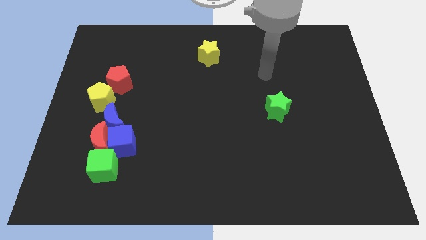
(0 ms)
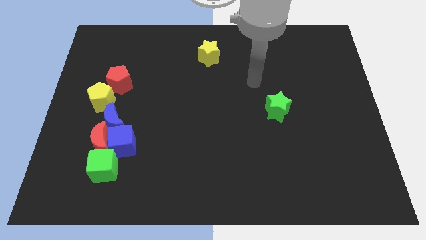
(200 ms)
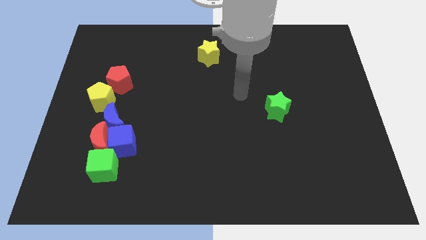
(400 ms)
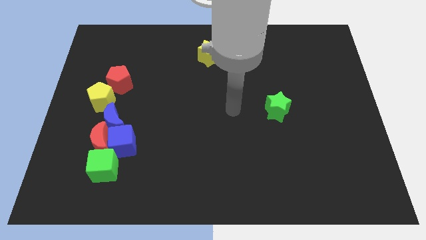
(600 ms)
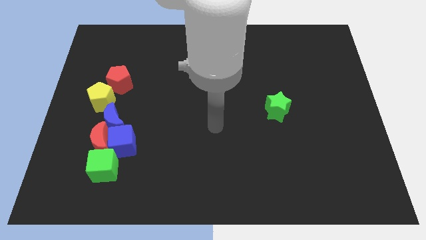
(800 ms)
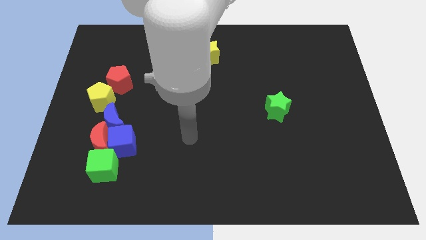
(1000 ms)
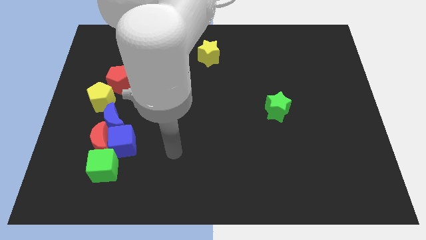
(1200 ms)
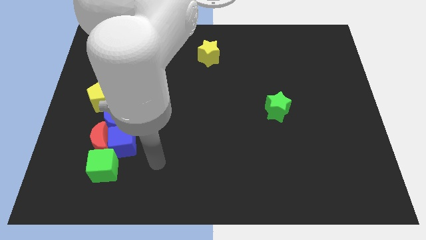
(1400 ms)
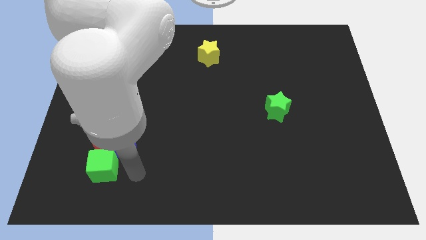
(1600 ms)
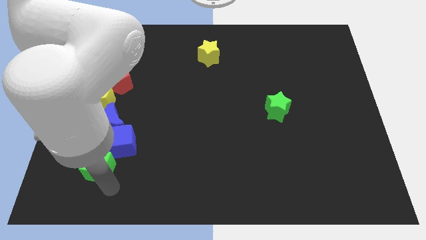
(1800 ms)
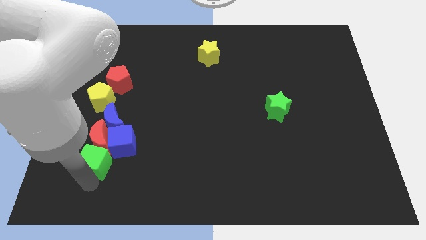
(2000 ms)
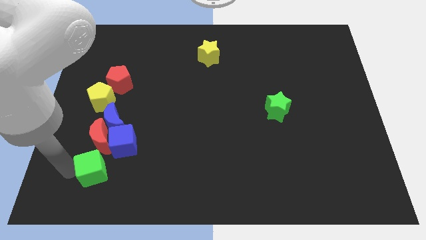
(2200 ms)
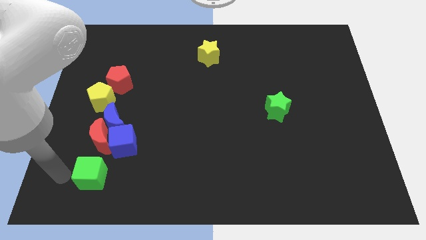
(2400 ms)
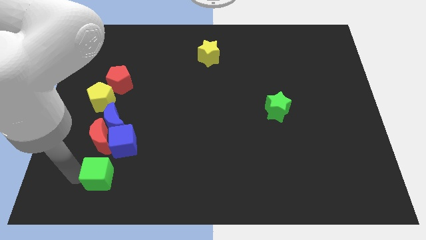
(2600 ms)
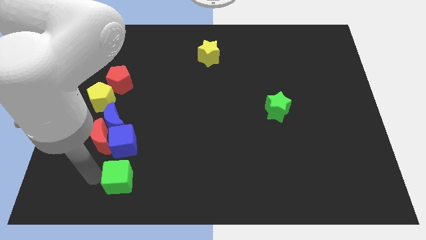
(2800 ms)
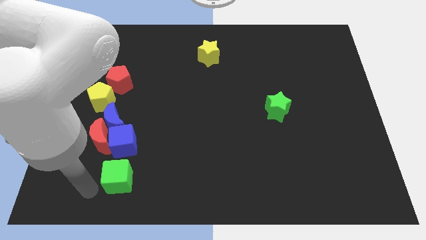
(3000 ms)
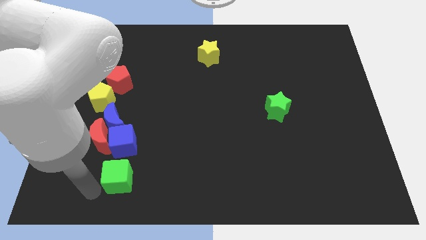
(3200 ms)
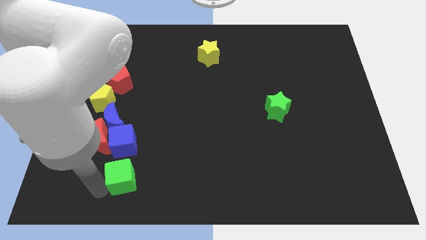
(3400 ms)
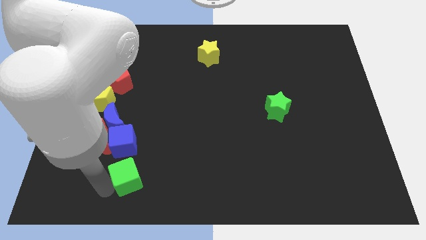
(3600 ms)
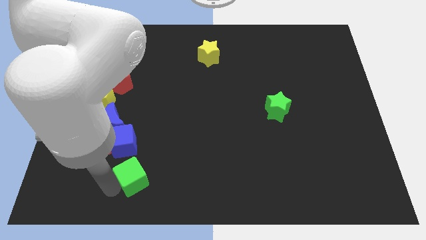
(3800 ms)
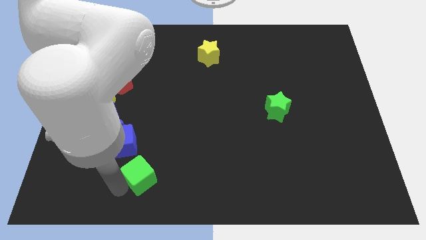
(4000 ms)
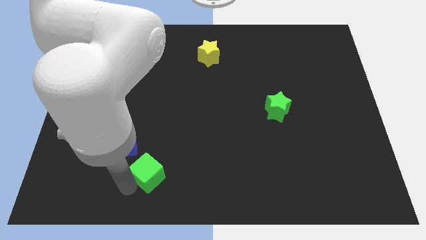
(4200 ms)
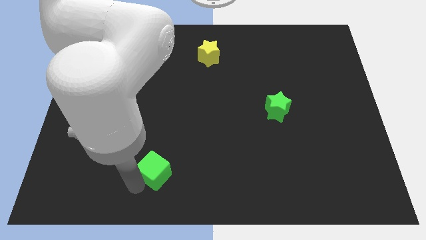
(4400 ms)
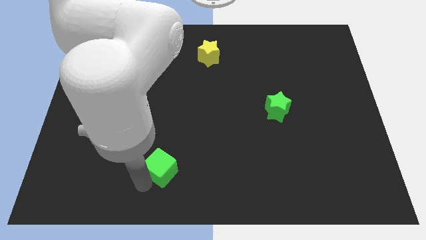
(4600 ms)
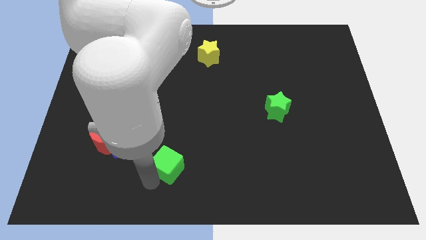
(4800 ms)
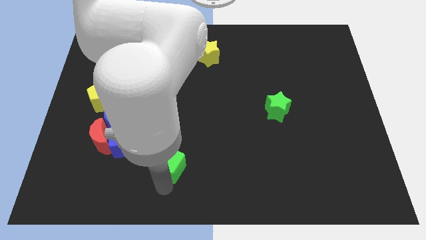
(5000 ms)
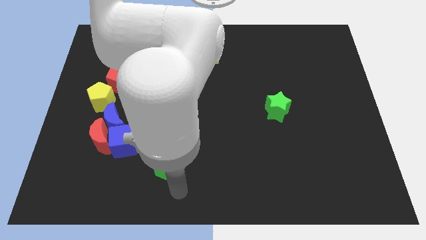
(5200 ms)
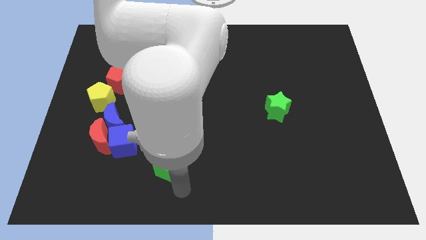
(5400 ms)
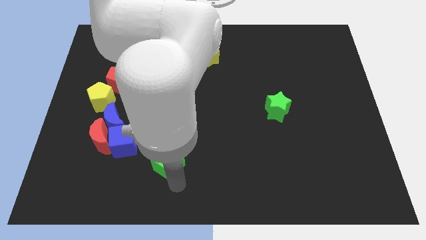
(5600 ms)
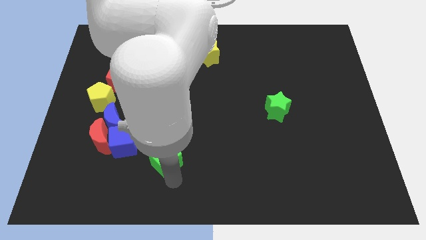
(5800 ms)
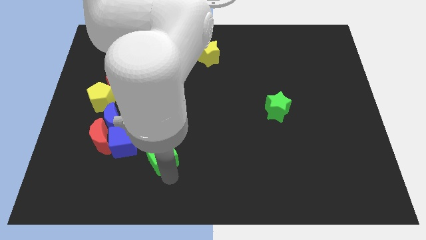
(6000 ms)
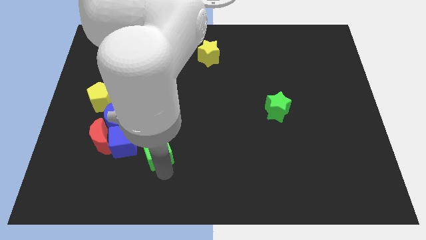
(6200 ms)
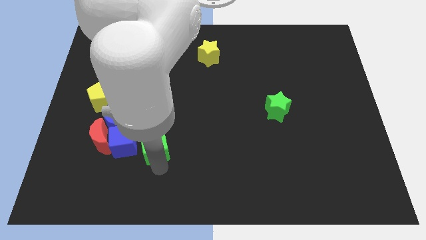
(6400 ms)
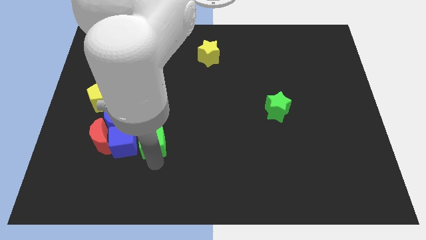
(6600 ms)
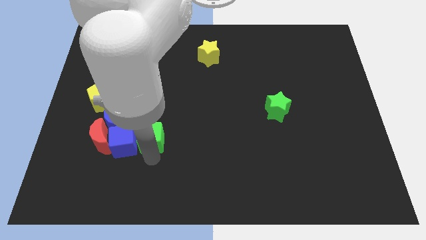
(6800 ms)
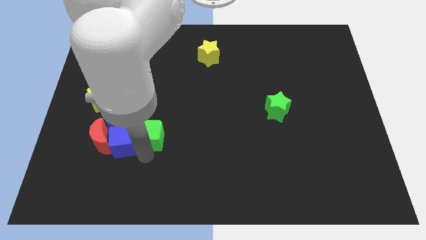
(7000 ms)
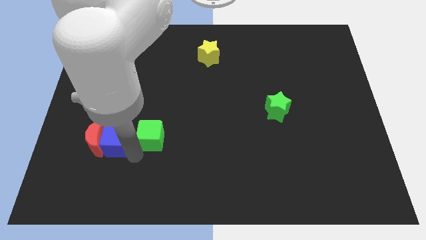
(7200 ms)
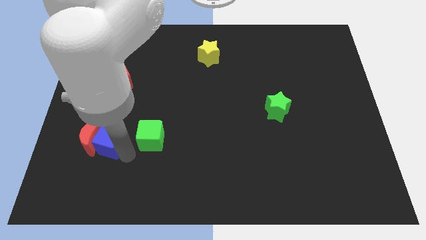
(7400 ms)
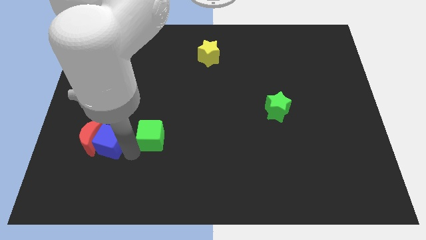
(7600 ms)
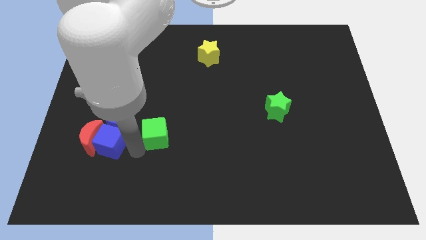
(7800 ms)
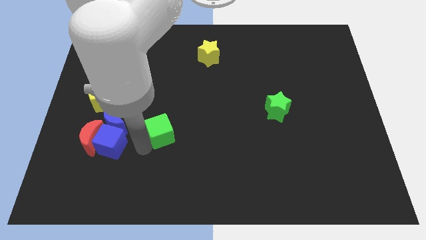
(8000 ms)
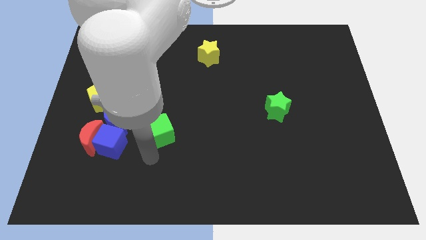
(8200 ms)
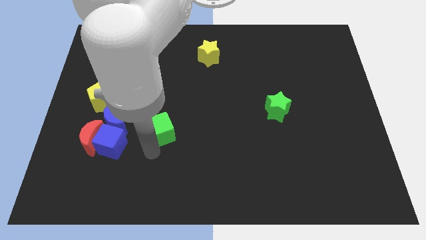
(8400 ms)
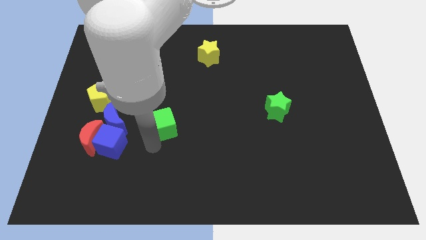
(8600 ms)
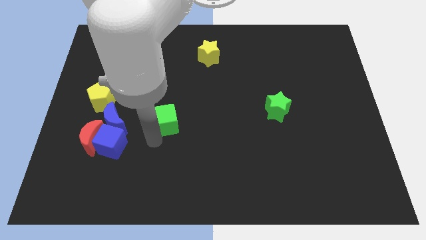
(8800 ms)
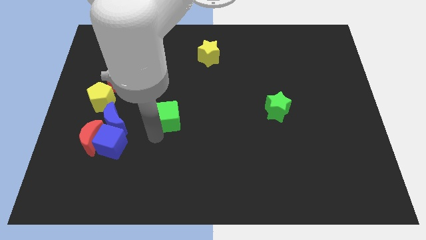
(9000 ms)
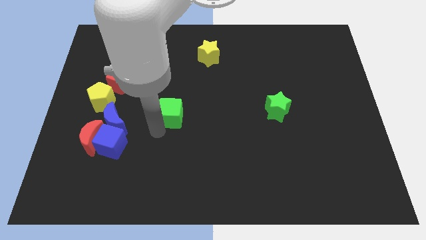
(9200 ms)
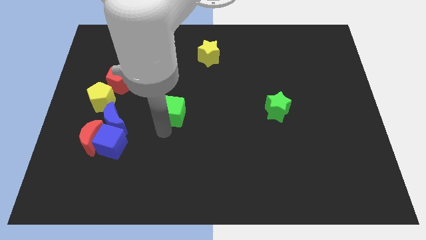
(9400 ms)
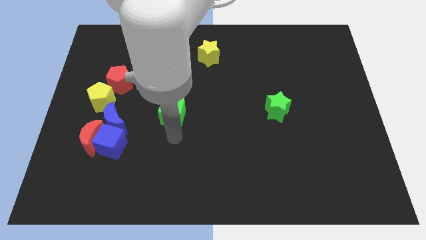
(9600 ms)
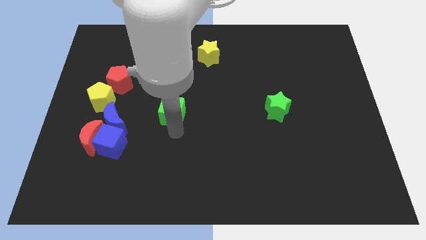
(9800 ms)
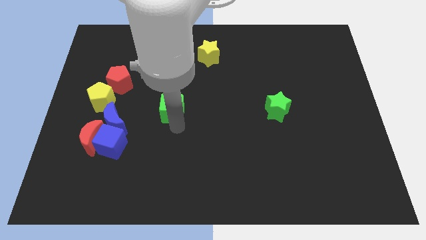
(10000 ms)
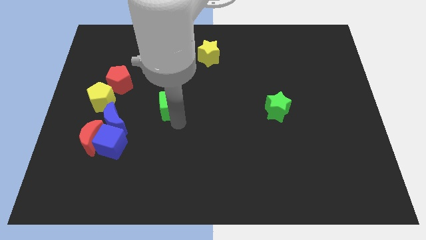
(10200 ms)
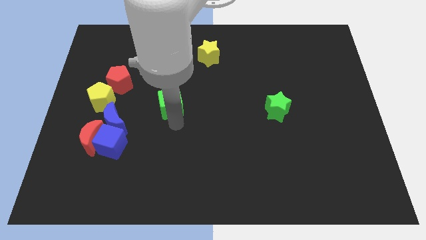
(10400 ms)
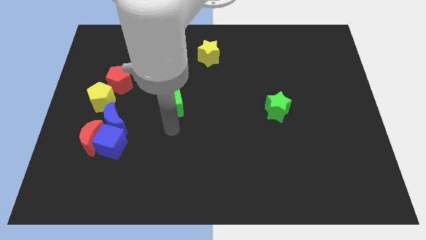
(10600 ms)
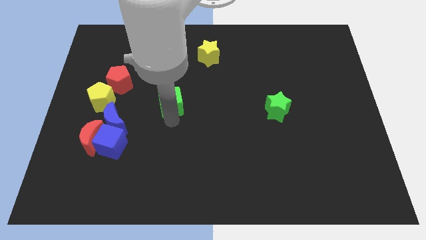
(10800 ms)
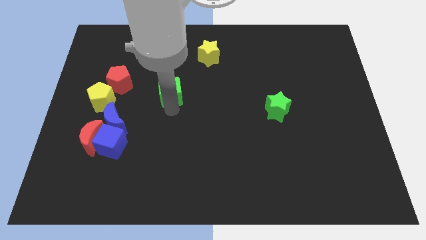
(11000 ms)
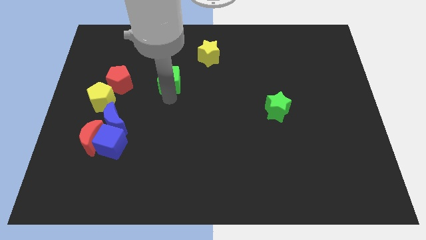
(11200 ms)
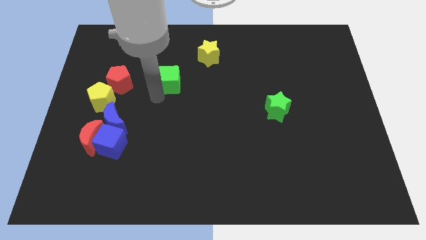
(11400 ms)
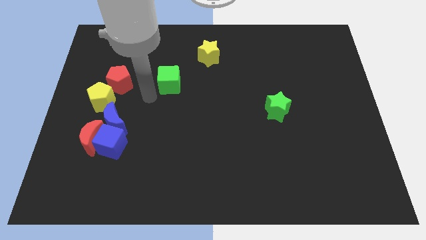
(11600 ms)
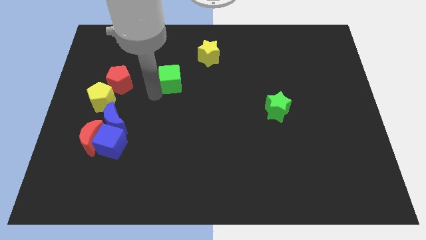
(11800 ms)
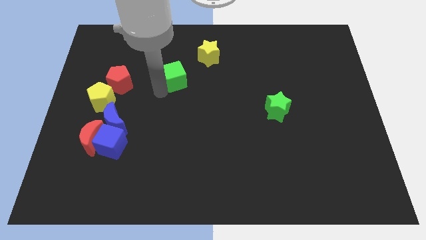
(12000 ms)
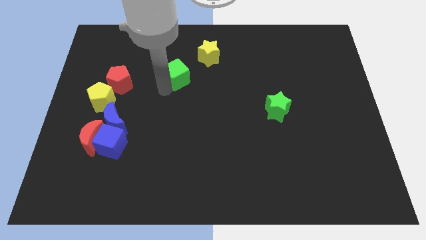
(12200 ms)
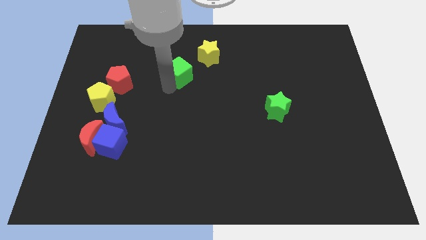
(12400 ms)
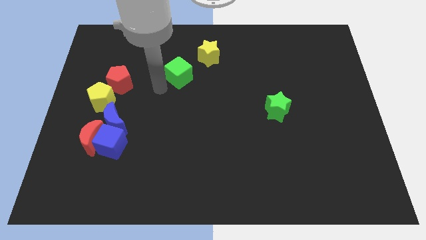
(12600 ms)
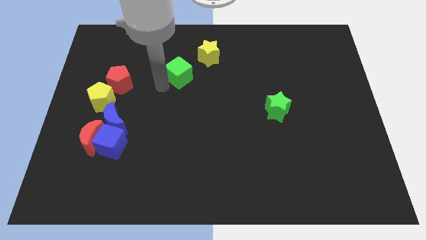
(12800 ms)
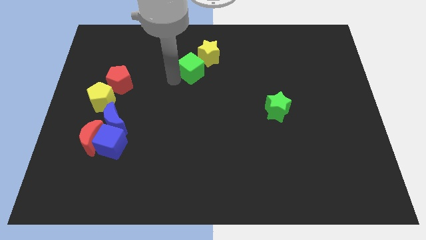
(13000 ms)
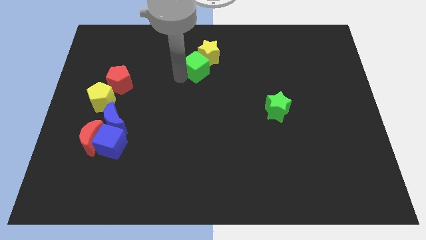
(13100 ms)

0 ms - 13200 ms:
put the green cube next to the yellow star
